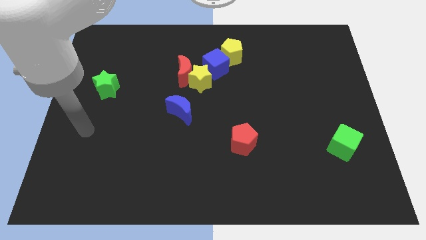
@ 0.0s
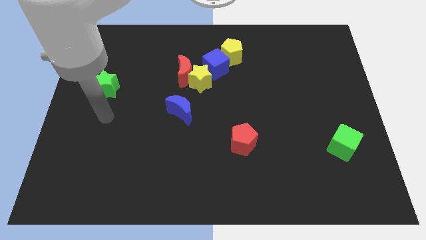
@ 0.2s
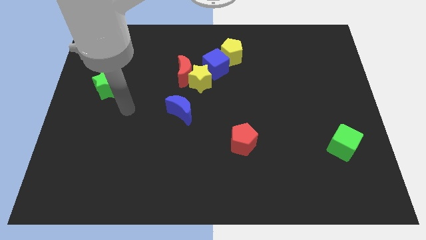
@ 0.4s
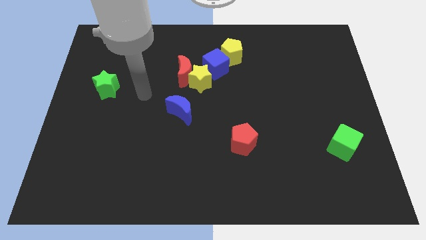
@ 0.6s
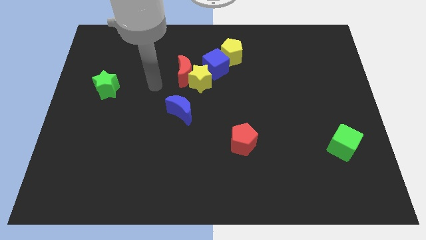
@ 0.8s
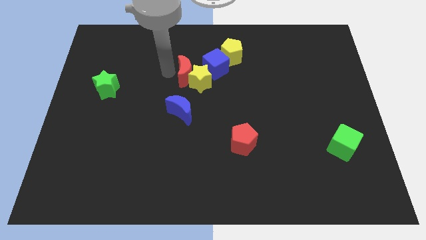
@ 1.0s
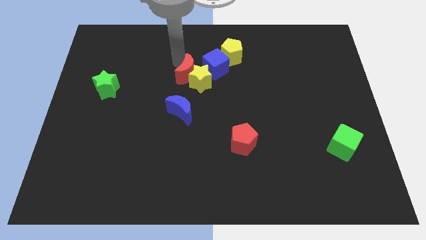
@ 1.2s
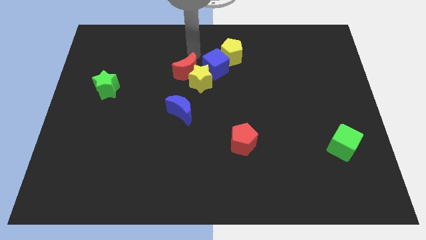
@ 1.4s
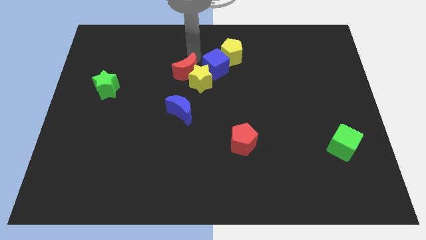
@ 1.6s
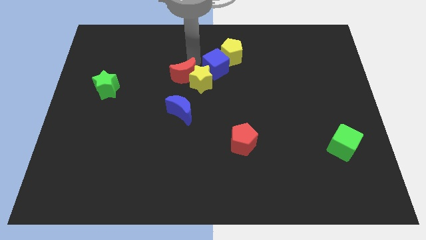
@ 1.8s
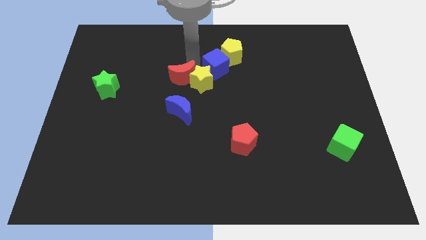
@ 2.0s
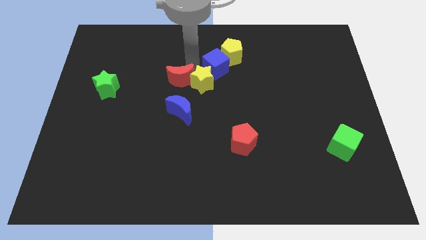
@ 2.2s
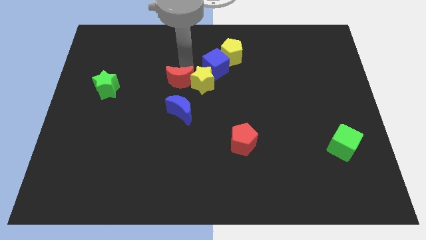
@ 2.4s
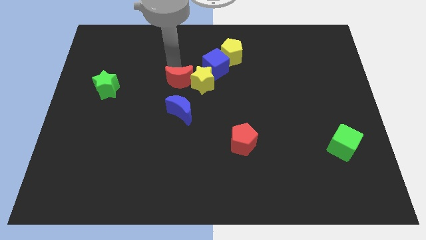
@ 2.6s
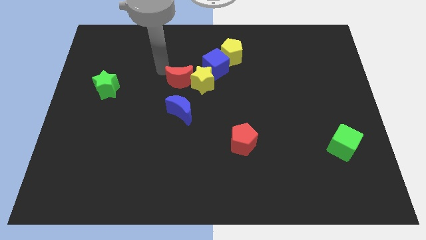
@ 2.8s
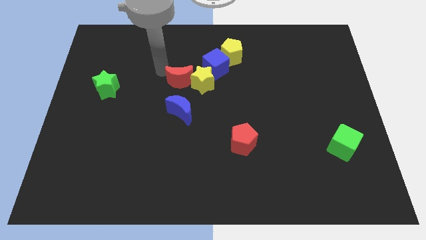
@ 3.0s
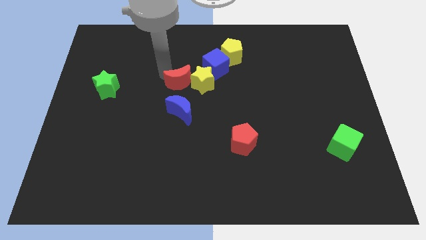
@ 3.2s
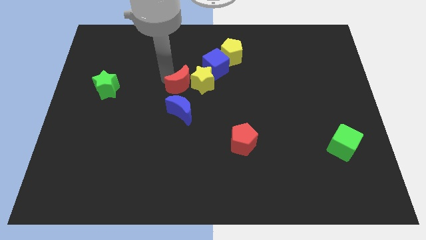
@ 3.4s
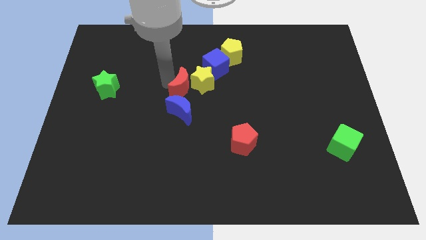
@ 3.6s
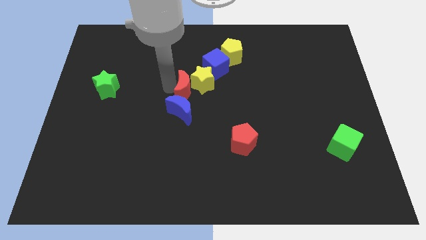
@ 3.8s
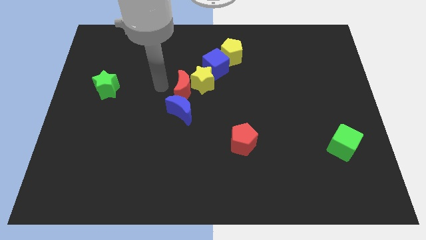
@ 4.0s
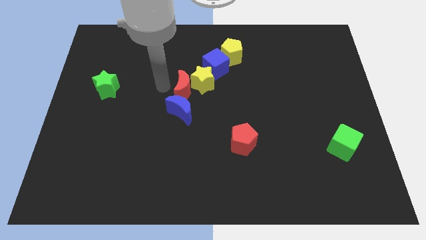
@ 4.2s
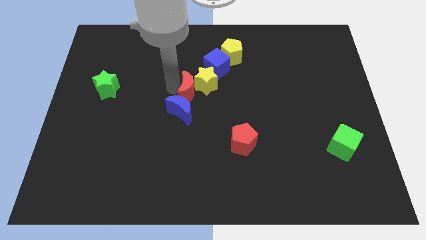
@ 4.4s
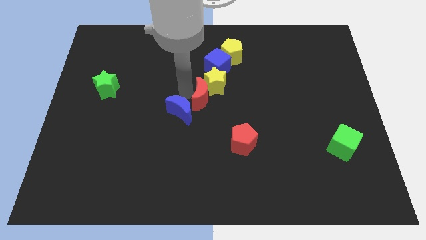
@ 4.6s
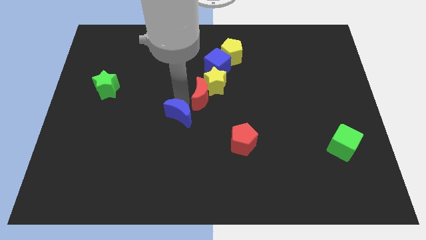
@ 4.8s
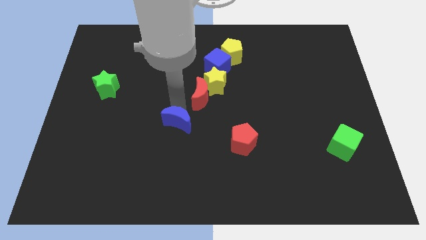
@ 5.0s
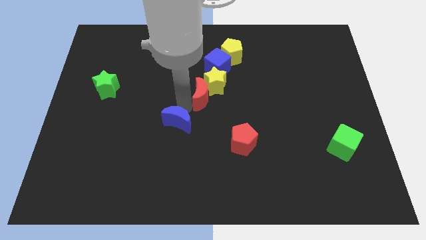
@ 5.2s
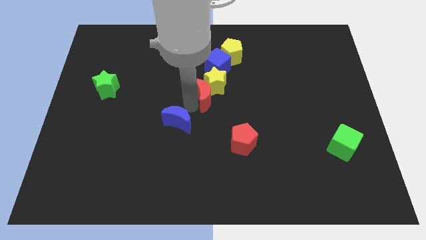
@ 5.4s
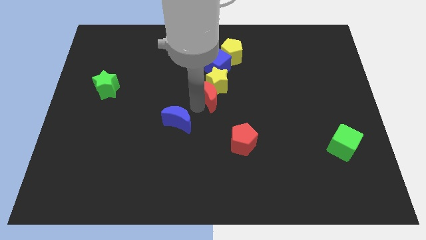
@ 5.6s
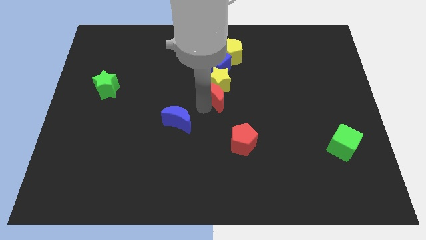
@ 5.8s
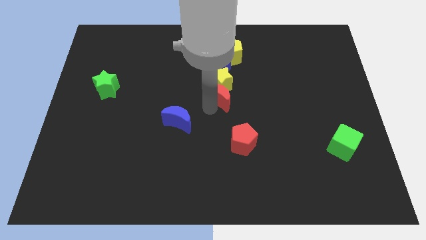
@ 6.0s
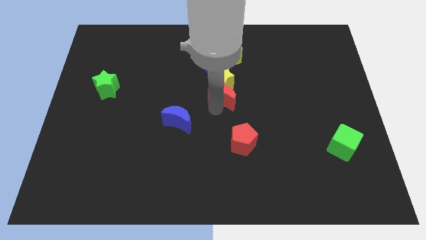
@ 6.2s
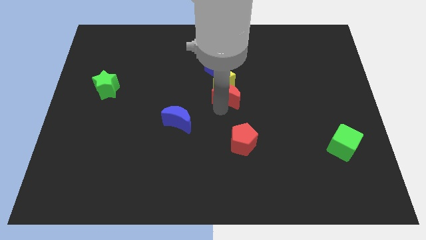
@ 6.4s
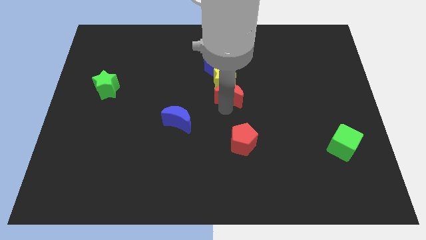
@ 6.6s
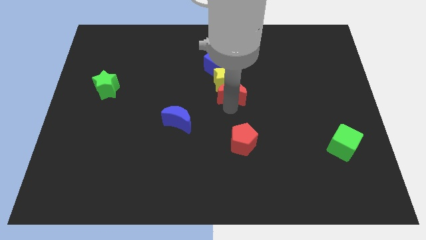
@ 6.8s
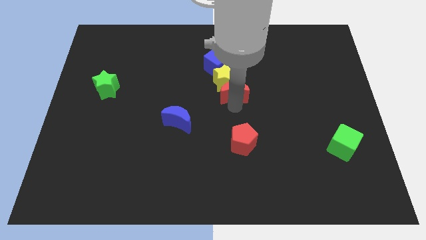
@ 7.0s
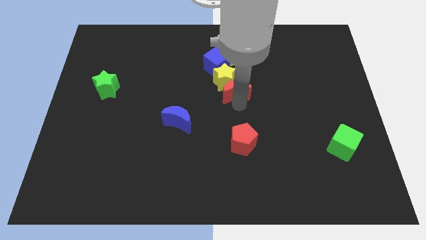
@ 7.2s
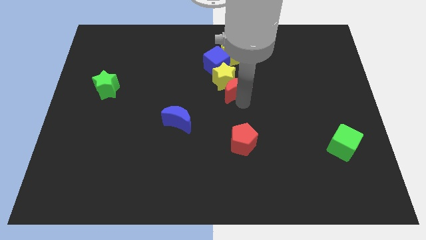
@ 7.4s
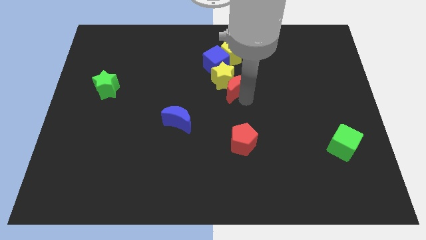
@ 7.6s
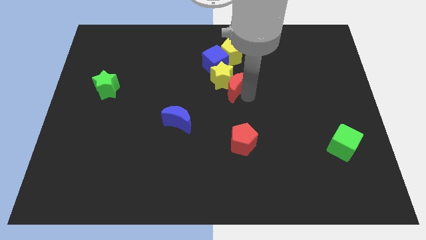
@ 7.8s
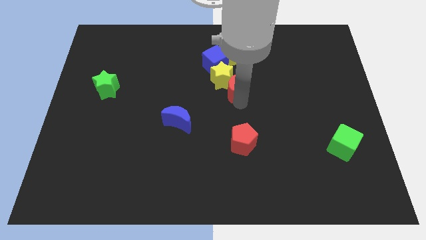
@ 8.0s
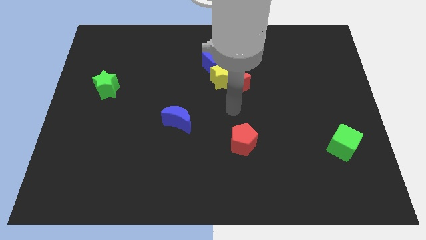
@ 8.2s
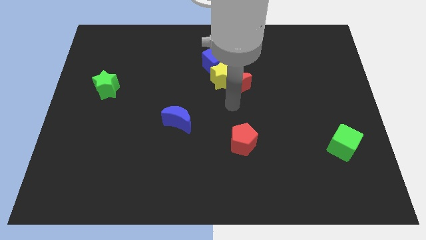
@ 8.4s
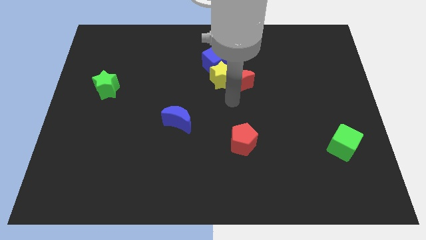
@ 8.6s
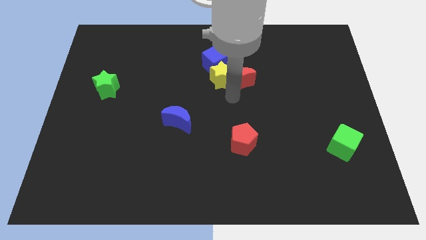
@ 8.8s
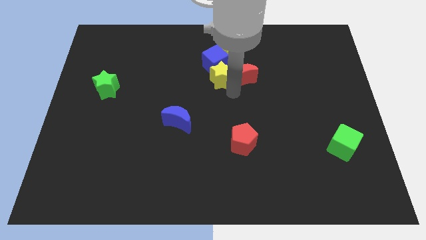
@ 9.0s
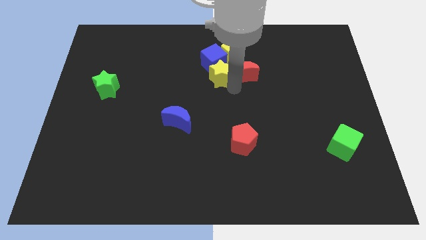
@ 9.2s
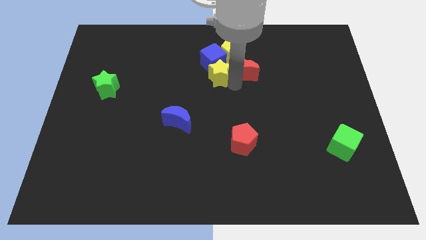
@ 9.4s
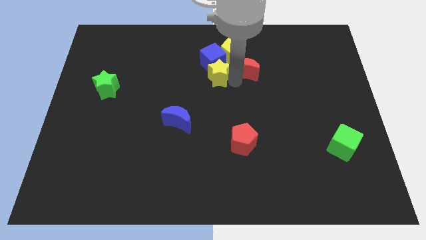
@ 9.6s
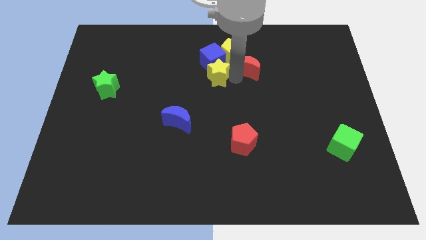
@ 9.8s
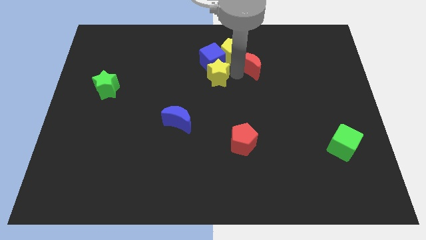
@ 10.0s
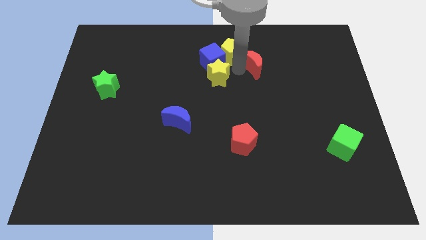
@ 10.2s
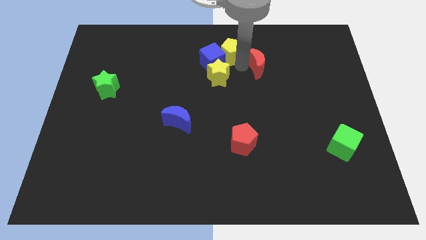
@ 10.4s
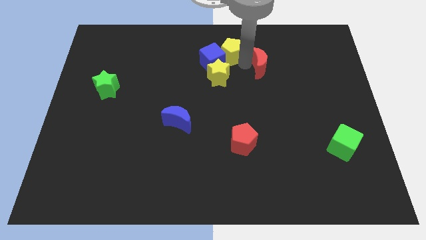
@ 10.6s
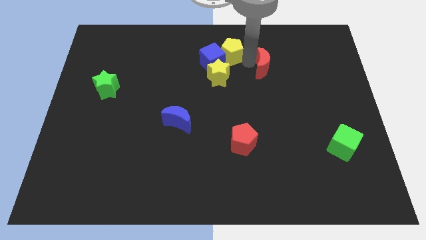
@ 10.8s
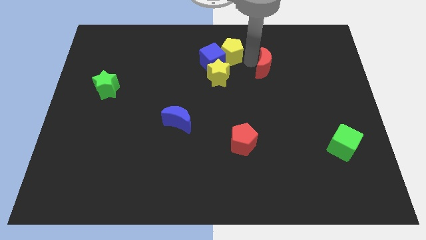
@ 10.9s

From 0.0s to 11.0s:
move the red moon to the right

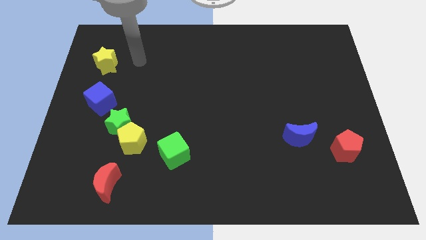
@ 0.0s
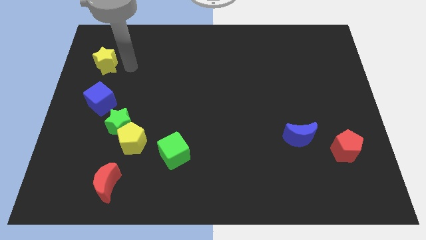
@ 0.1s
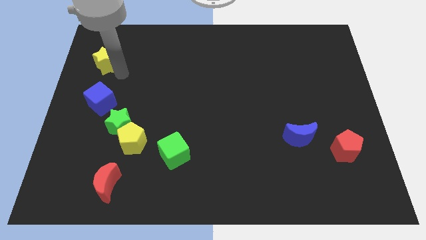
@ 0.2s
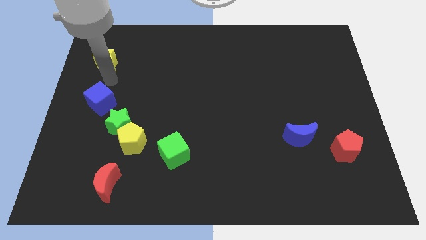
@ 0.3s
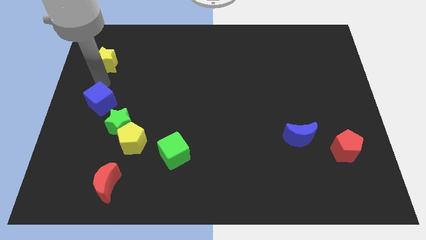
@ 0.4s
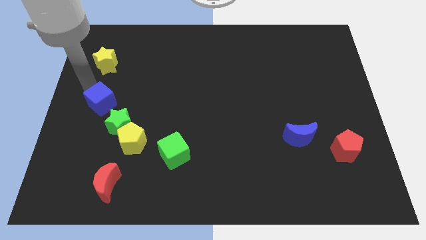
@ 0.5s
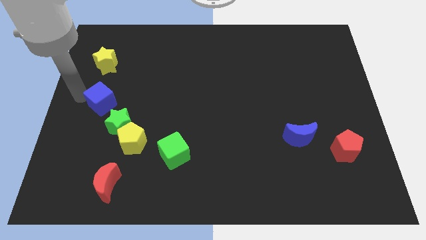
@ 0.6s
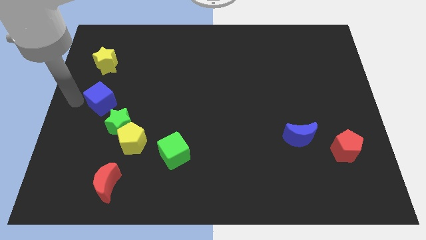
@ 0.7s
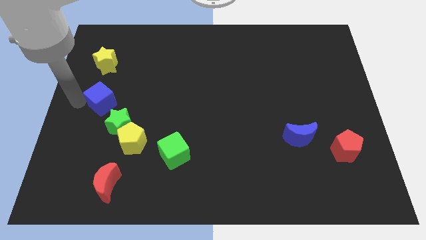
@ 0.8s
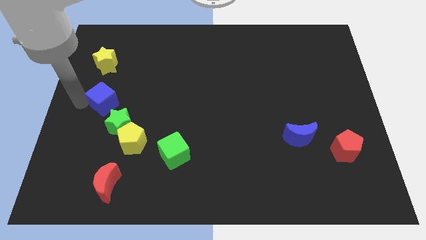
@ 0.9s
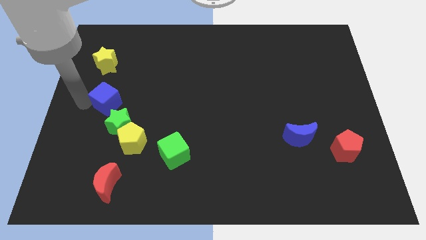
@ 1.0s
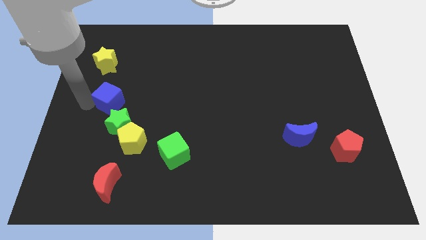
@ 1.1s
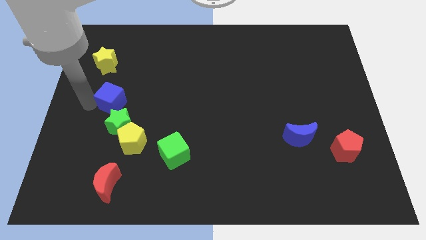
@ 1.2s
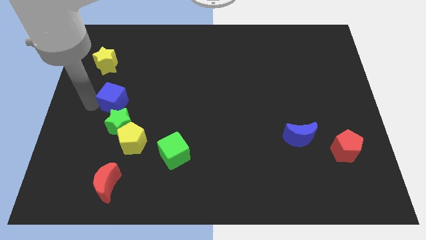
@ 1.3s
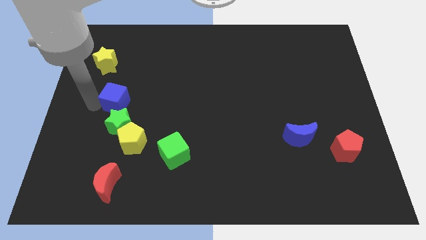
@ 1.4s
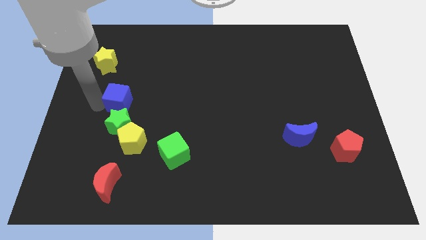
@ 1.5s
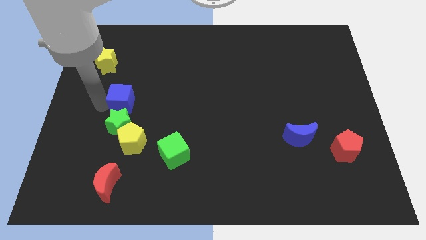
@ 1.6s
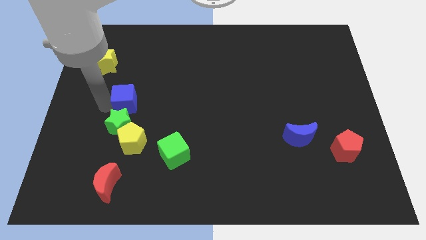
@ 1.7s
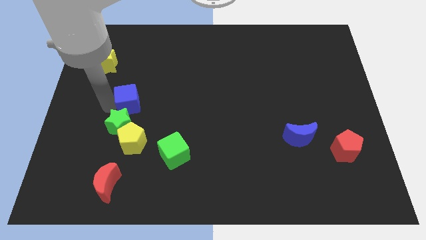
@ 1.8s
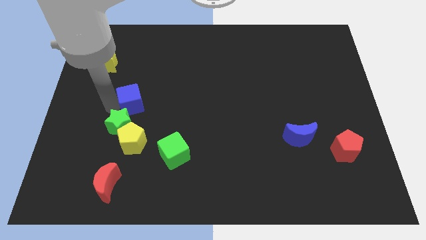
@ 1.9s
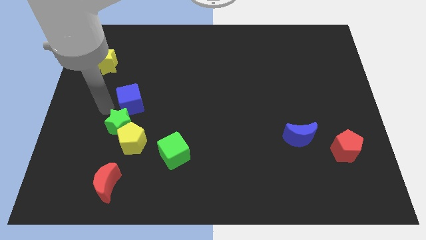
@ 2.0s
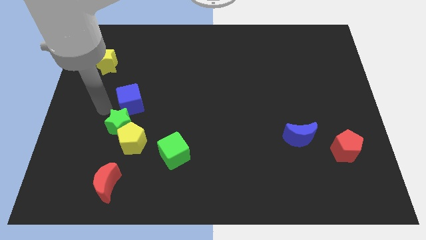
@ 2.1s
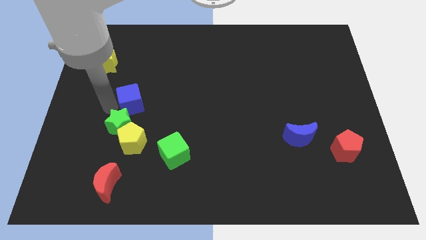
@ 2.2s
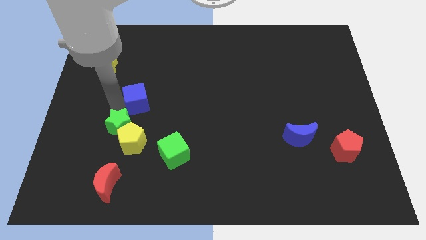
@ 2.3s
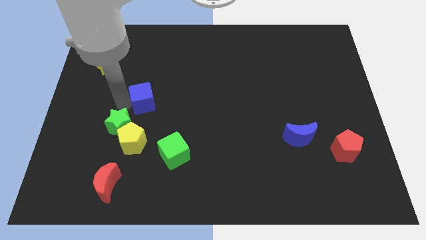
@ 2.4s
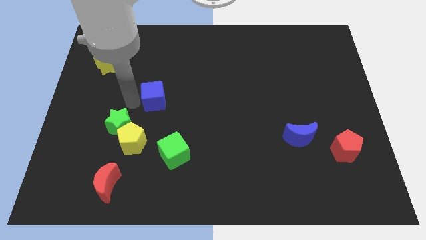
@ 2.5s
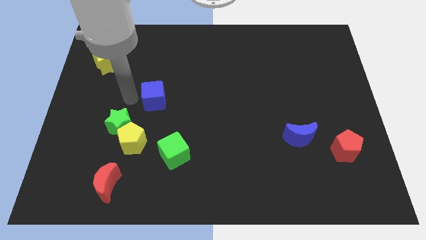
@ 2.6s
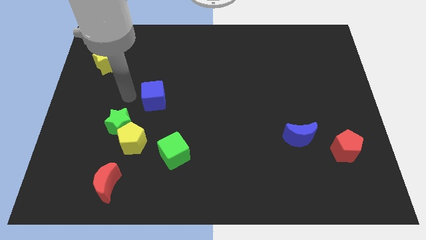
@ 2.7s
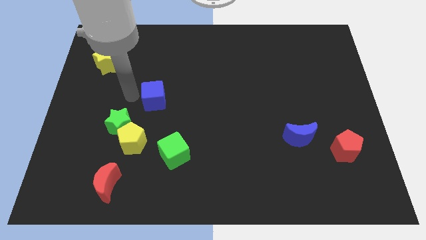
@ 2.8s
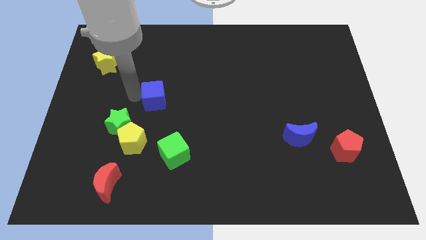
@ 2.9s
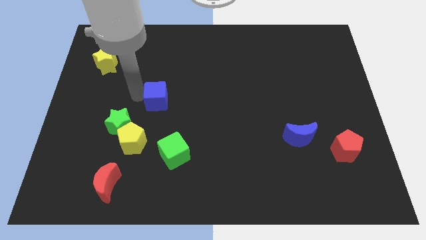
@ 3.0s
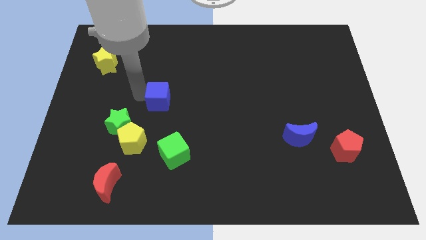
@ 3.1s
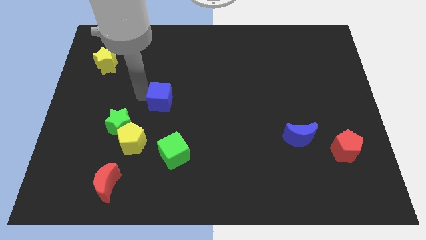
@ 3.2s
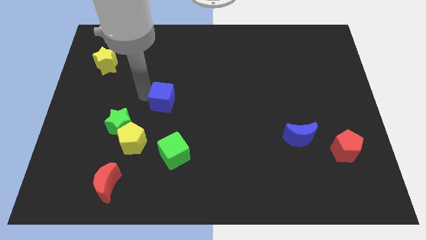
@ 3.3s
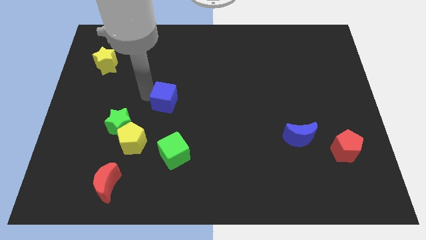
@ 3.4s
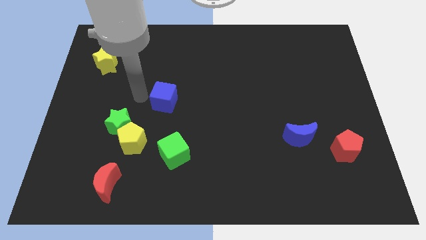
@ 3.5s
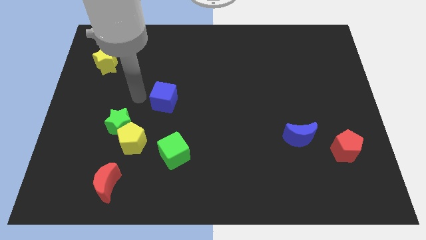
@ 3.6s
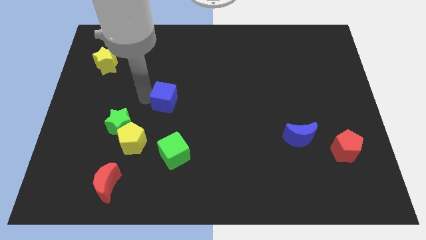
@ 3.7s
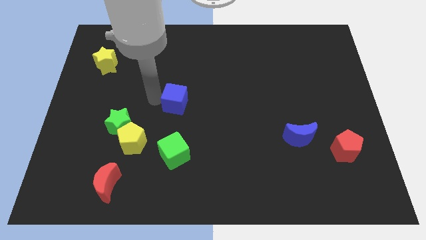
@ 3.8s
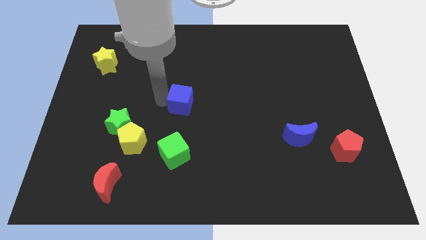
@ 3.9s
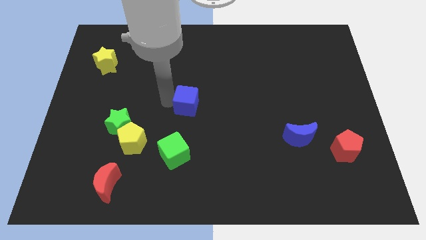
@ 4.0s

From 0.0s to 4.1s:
slide the blue cube right
